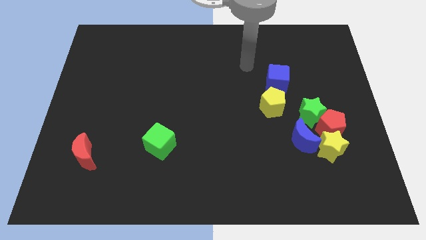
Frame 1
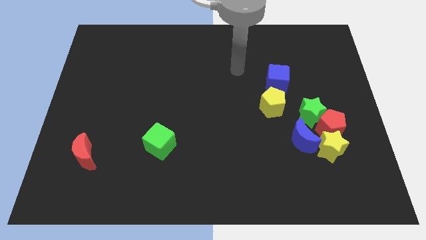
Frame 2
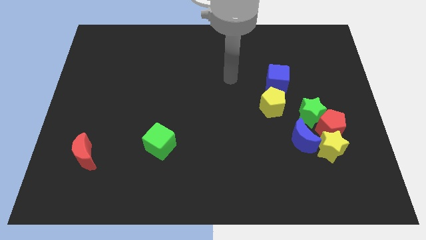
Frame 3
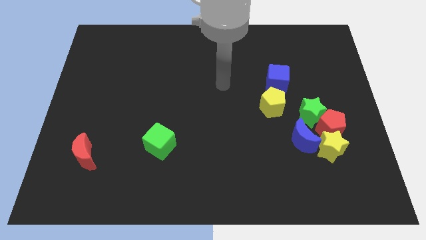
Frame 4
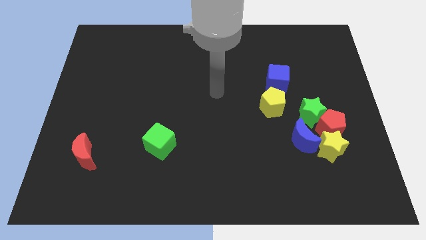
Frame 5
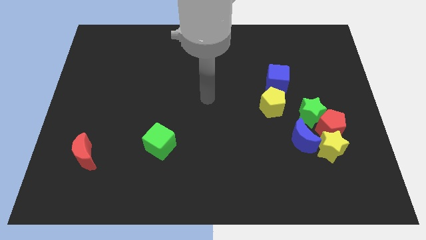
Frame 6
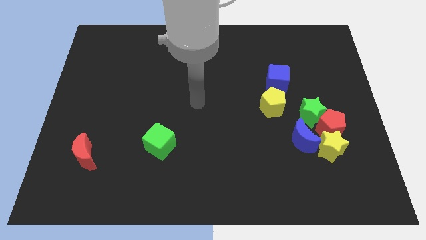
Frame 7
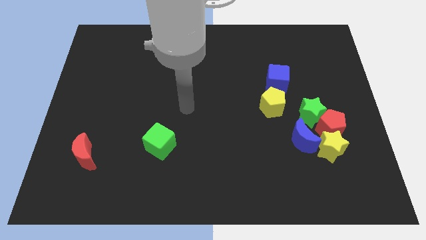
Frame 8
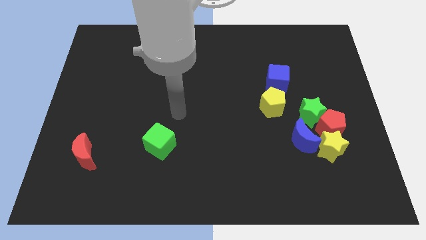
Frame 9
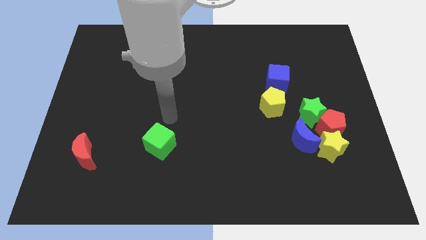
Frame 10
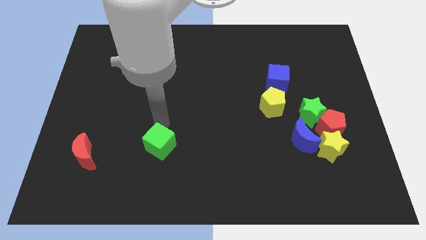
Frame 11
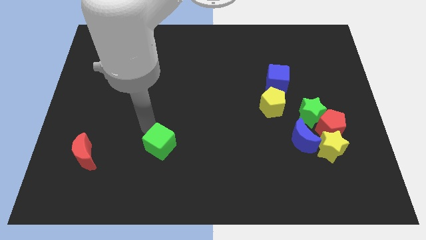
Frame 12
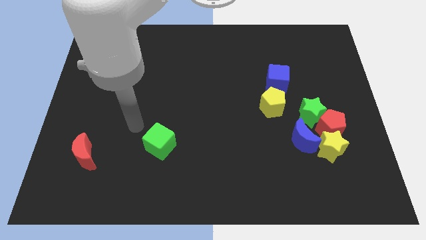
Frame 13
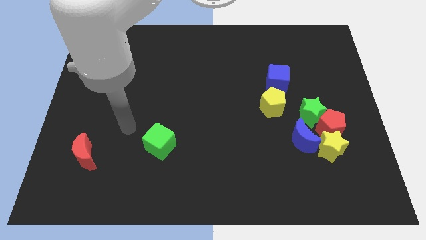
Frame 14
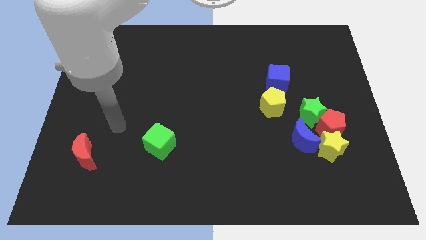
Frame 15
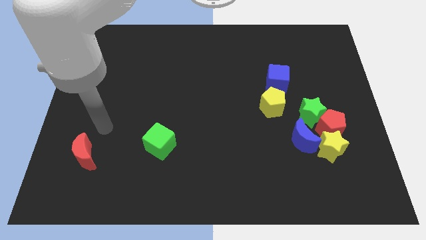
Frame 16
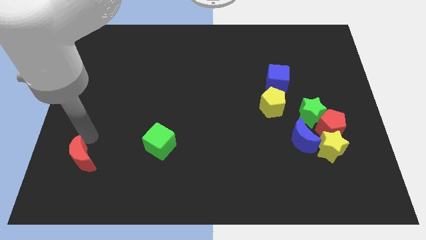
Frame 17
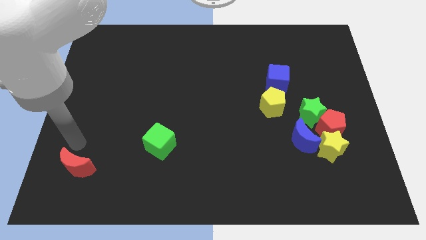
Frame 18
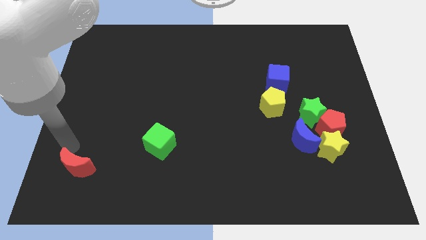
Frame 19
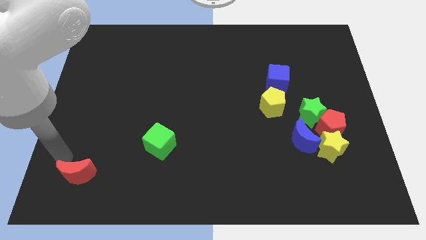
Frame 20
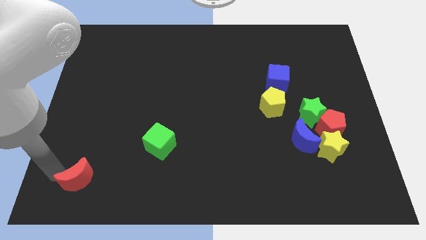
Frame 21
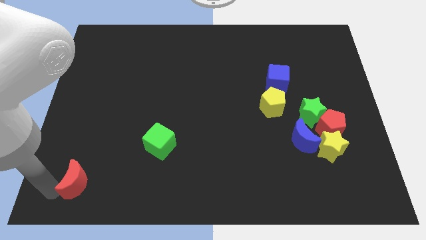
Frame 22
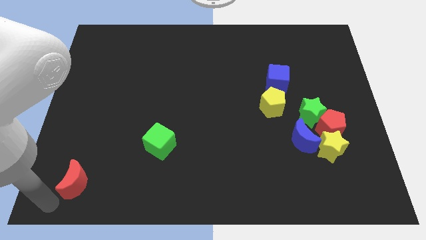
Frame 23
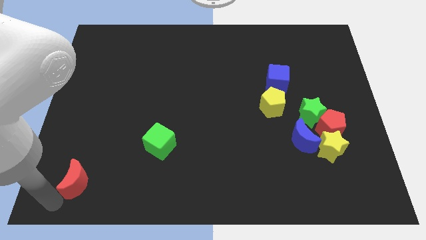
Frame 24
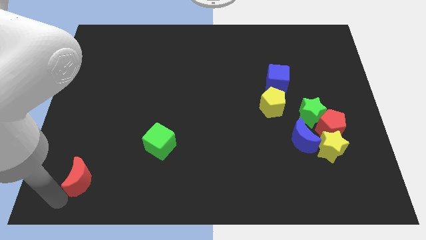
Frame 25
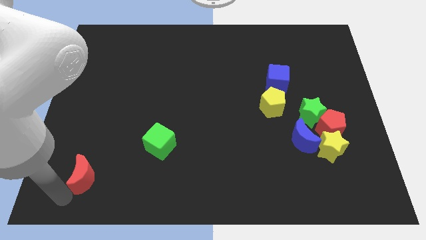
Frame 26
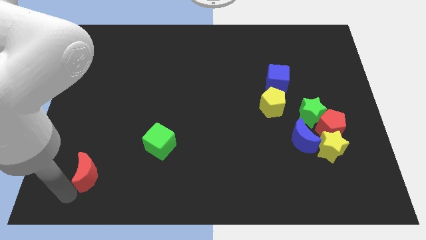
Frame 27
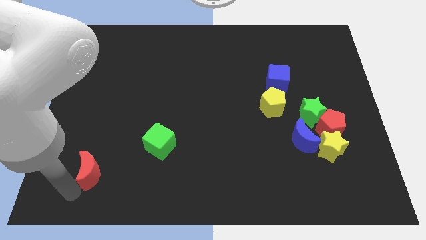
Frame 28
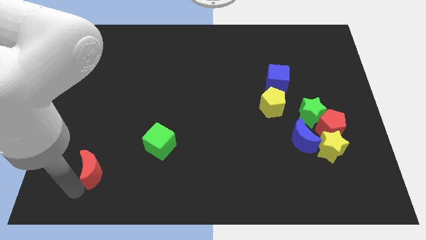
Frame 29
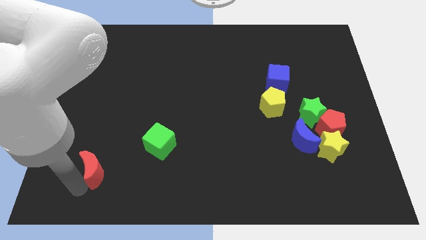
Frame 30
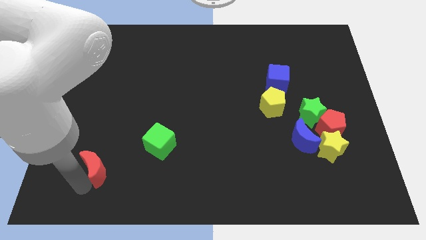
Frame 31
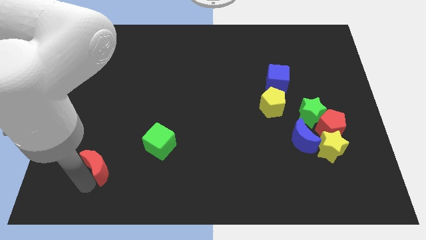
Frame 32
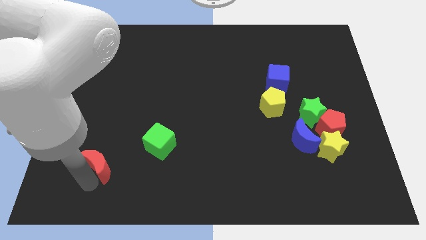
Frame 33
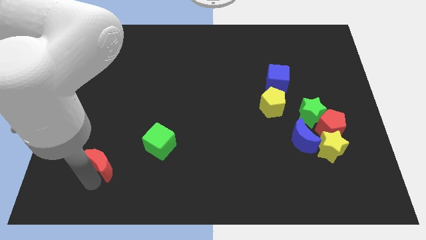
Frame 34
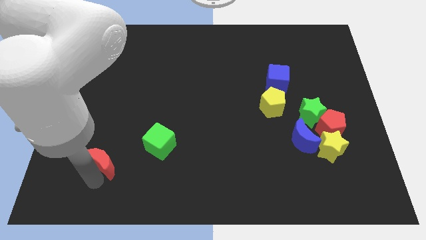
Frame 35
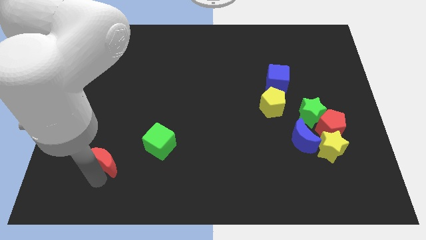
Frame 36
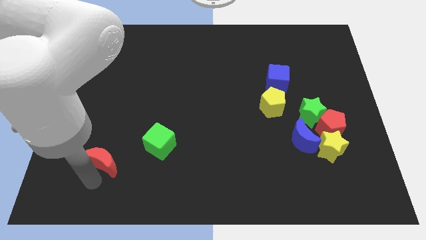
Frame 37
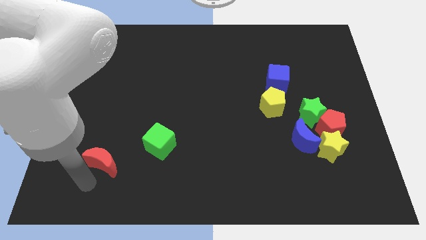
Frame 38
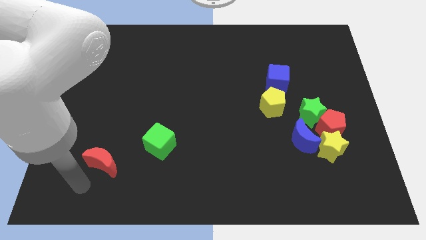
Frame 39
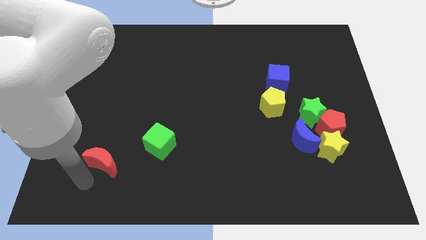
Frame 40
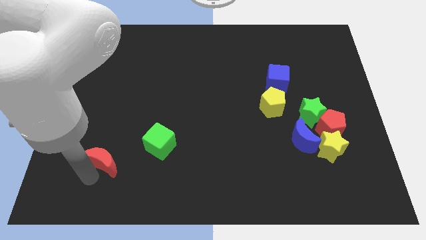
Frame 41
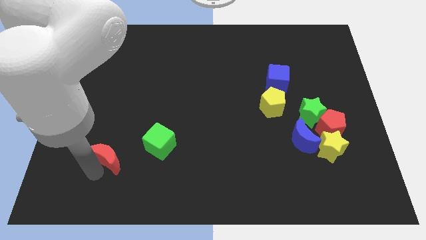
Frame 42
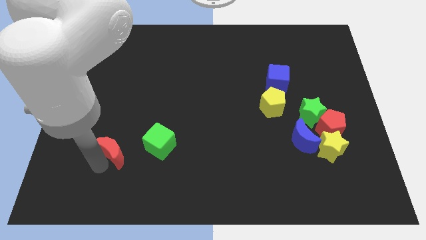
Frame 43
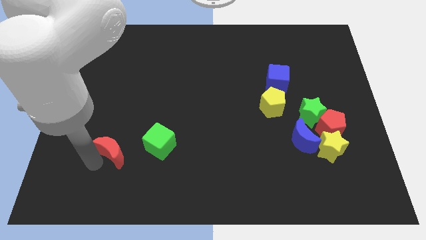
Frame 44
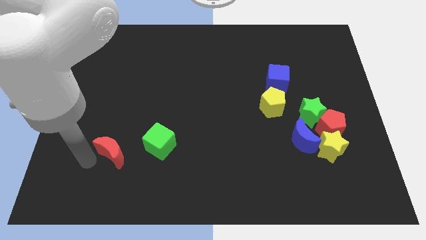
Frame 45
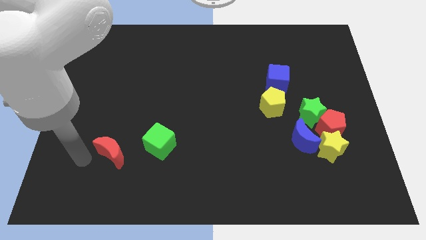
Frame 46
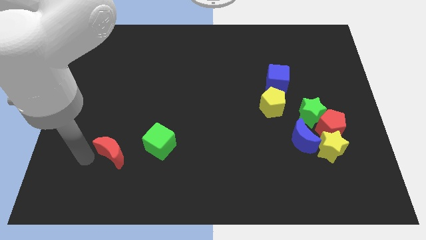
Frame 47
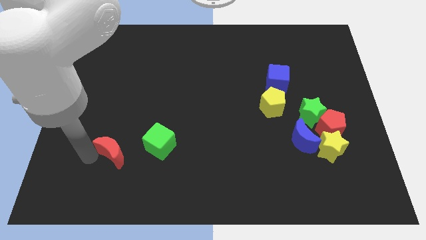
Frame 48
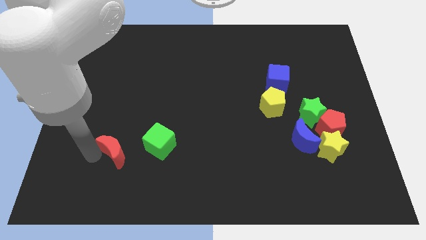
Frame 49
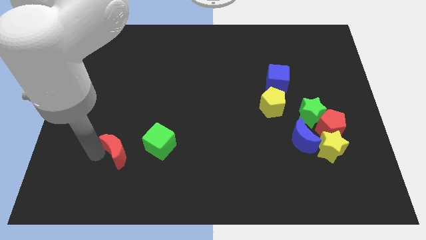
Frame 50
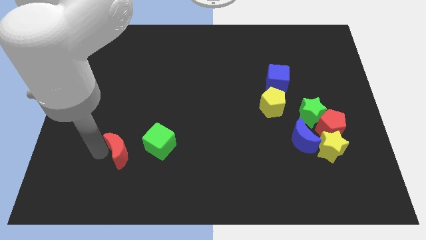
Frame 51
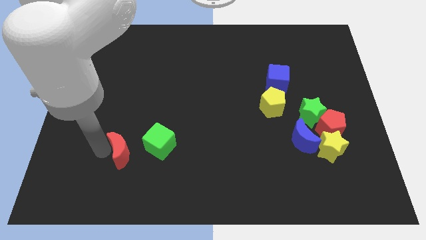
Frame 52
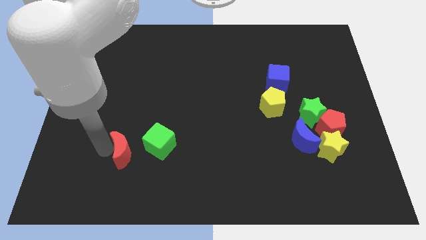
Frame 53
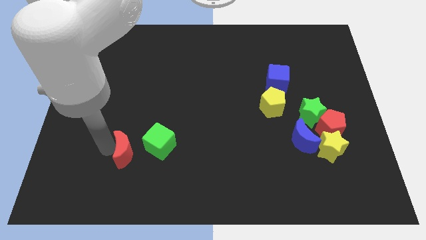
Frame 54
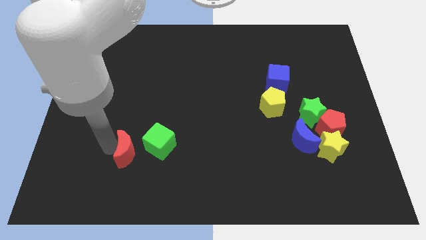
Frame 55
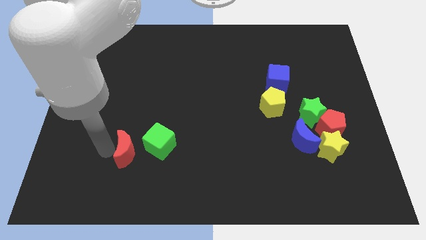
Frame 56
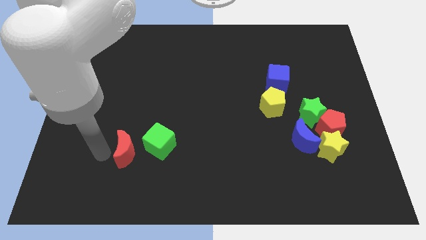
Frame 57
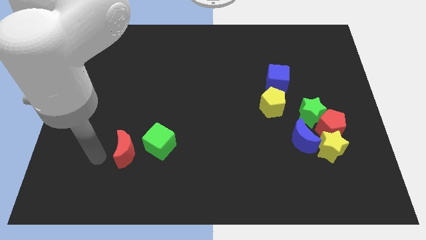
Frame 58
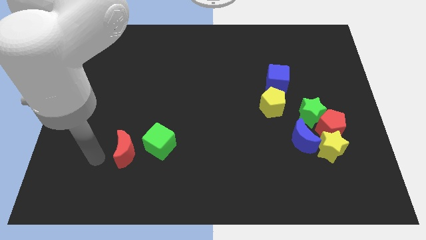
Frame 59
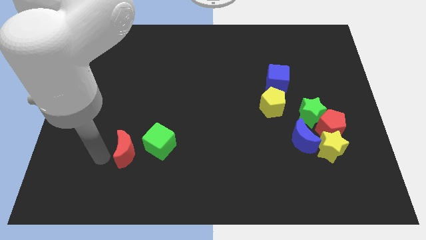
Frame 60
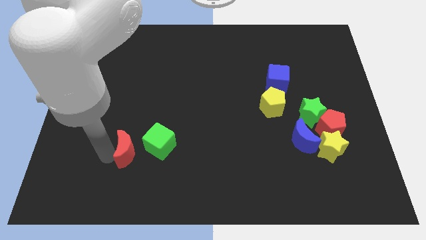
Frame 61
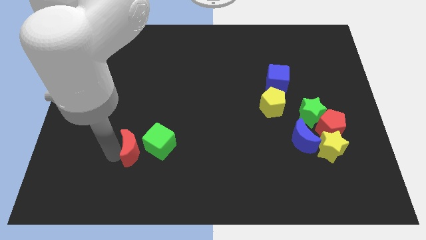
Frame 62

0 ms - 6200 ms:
push the red moon towards the green cube

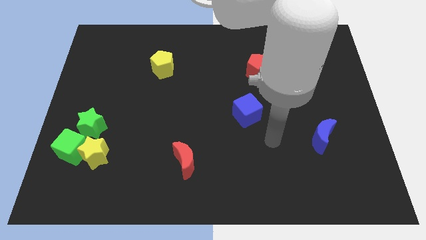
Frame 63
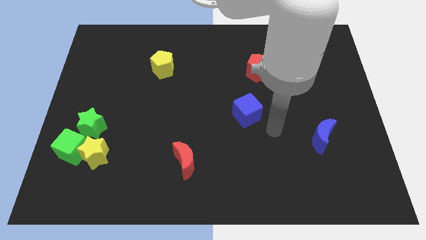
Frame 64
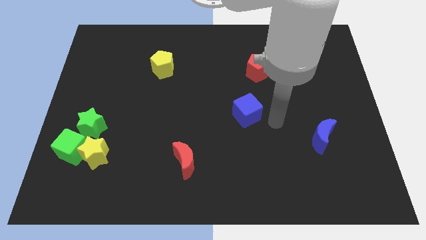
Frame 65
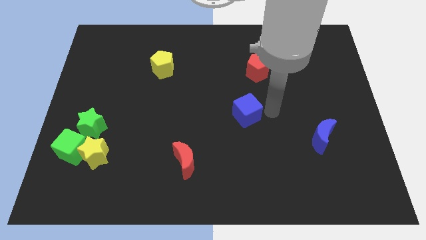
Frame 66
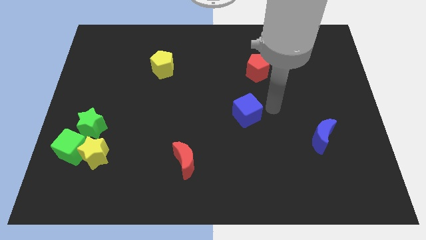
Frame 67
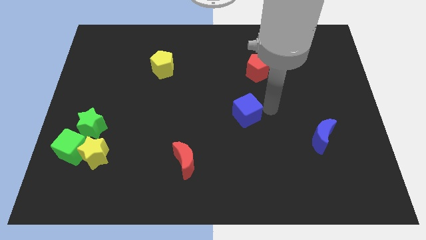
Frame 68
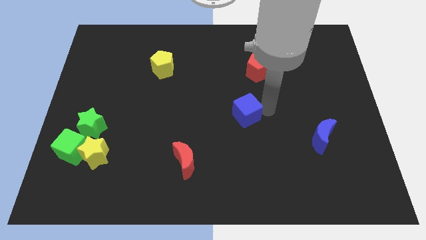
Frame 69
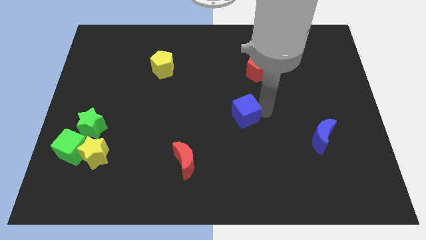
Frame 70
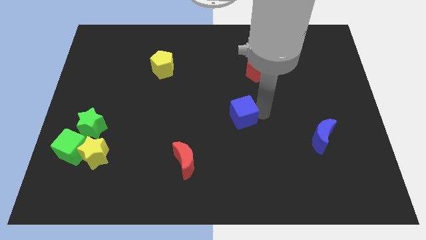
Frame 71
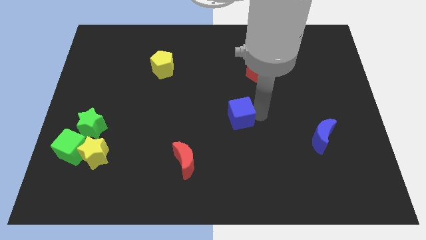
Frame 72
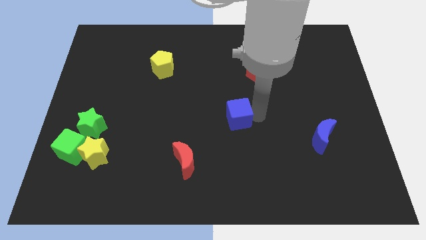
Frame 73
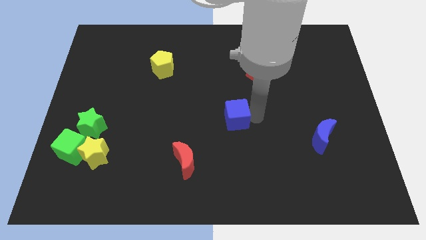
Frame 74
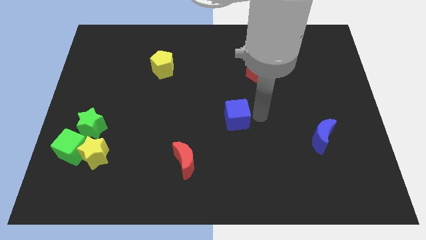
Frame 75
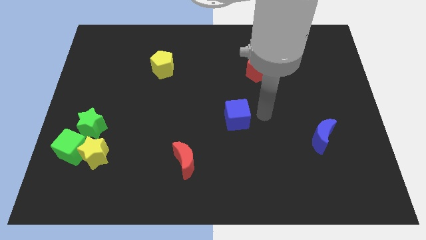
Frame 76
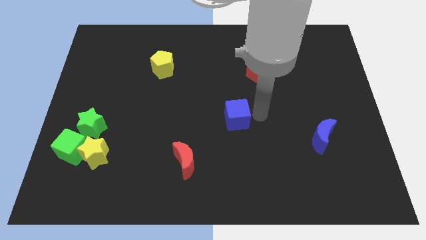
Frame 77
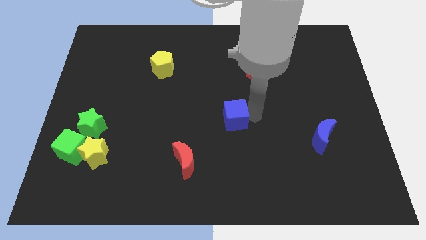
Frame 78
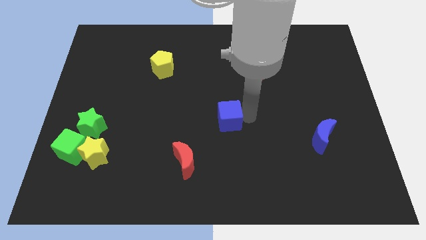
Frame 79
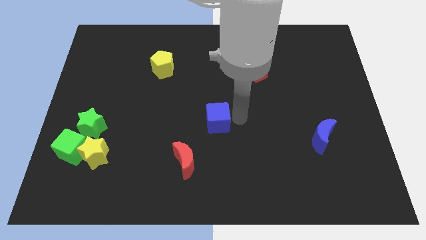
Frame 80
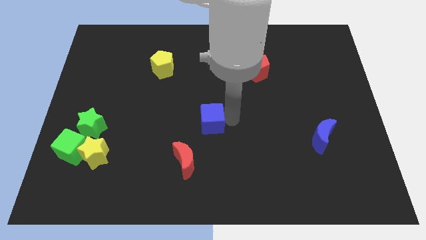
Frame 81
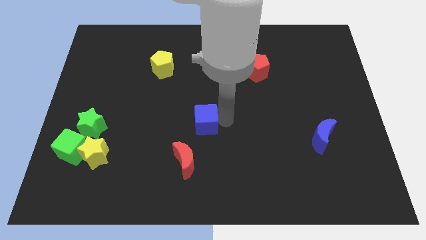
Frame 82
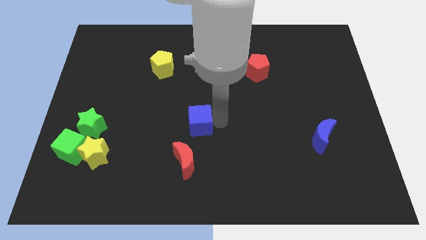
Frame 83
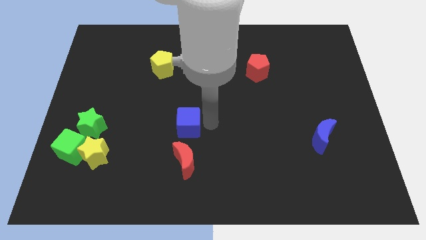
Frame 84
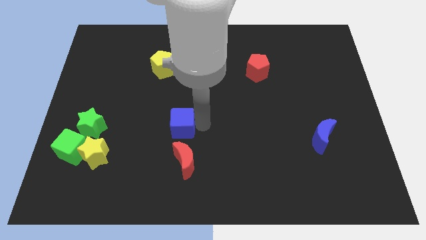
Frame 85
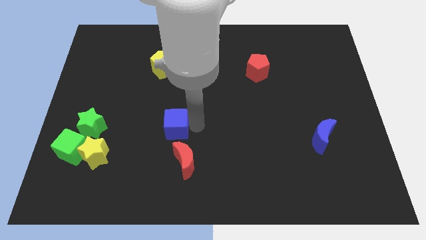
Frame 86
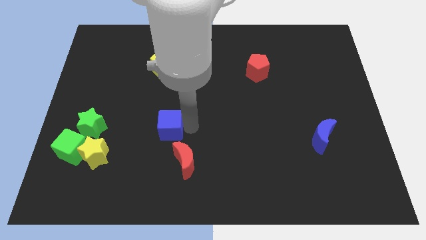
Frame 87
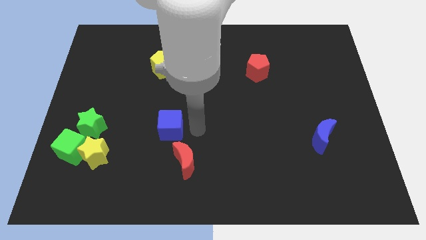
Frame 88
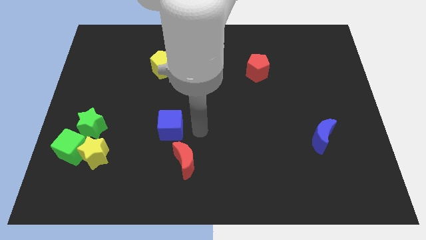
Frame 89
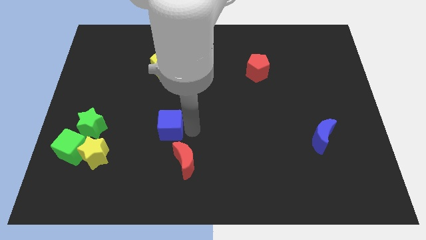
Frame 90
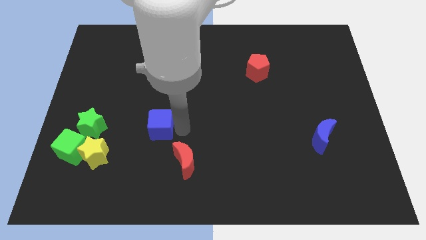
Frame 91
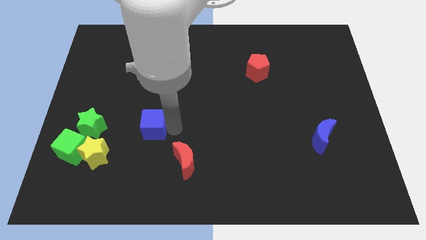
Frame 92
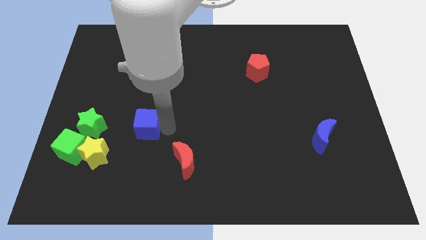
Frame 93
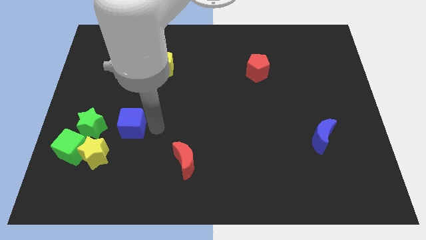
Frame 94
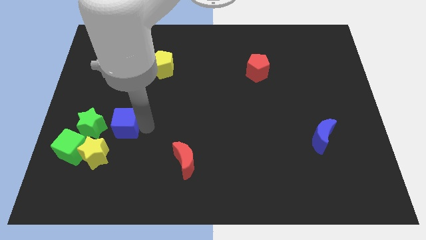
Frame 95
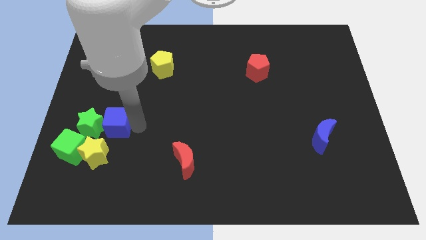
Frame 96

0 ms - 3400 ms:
slide the blue cube towards the green star
